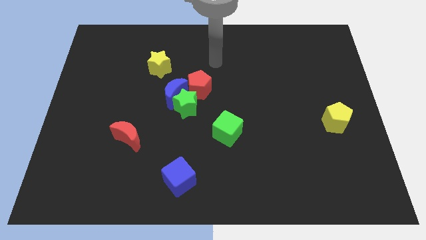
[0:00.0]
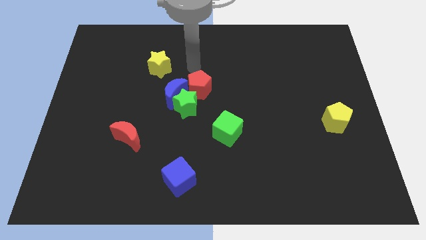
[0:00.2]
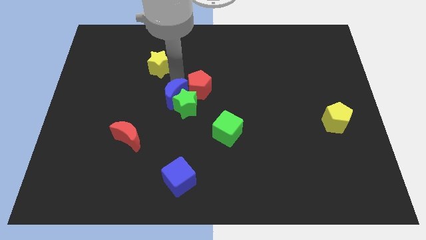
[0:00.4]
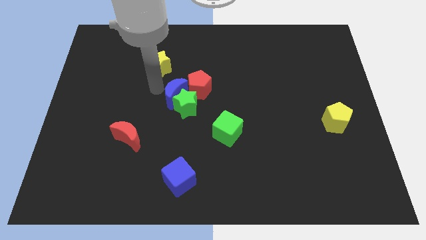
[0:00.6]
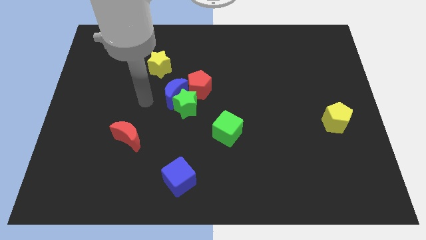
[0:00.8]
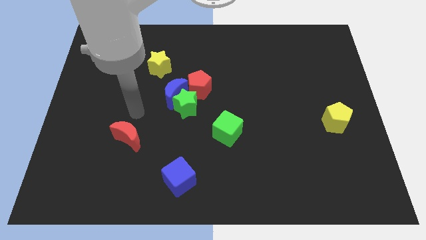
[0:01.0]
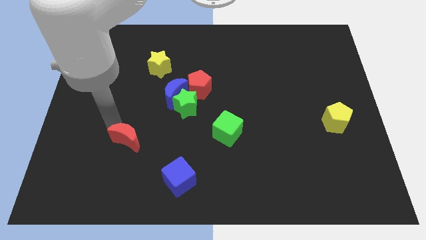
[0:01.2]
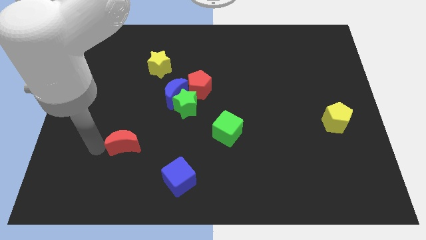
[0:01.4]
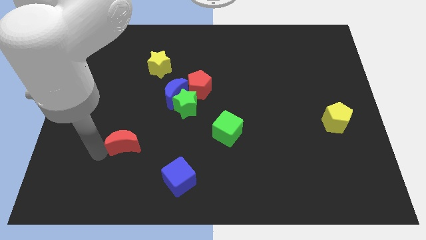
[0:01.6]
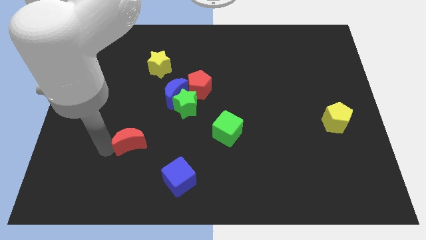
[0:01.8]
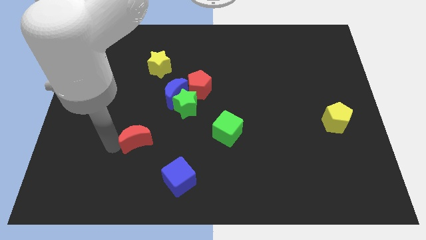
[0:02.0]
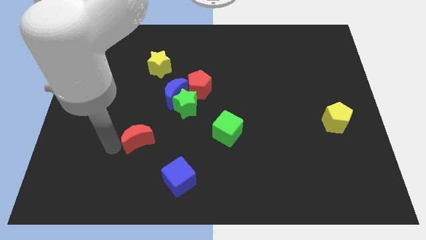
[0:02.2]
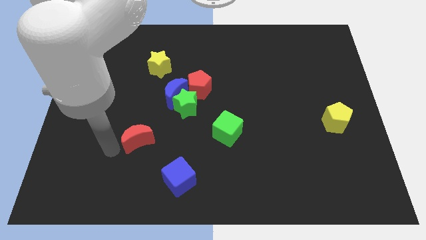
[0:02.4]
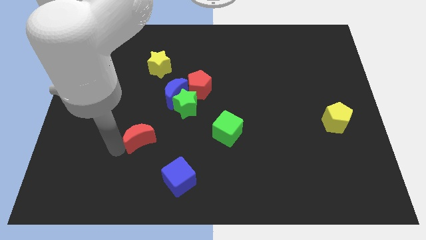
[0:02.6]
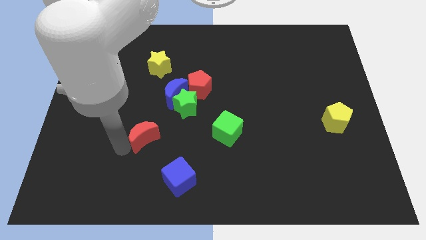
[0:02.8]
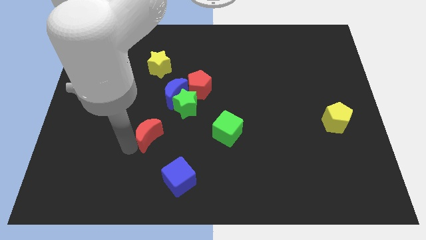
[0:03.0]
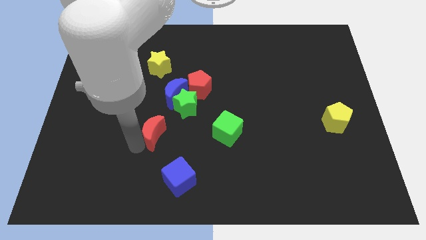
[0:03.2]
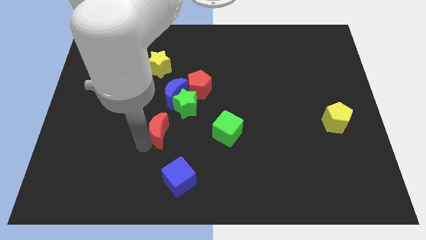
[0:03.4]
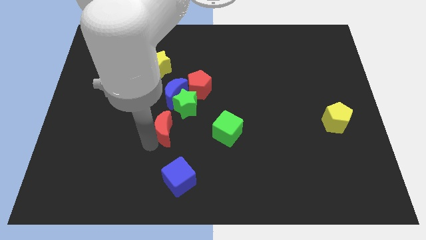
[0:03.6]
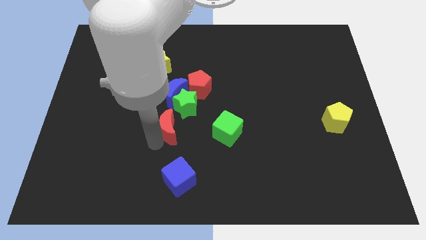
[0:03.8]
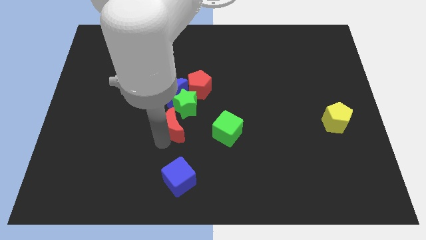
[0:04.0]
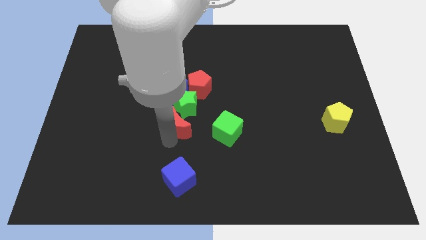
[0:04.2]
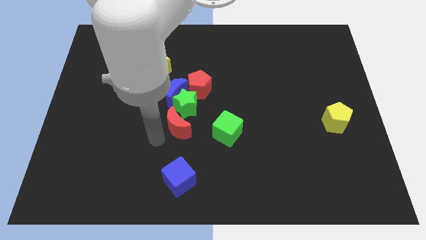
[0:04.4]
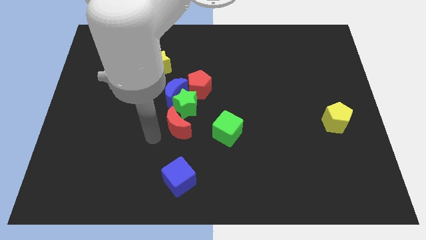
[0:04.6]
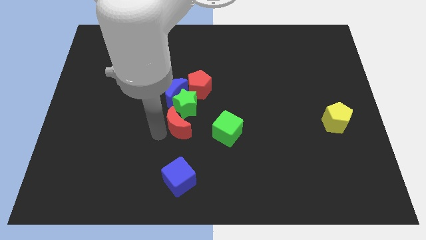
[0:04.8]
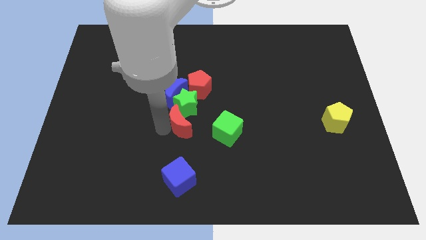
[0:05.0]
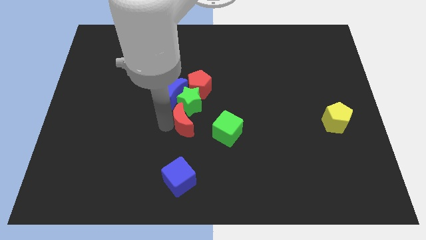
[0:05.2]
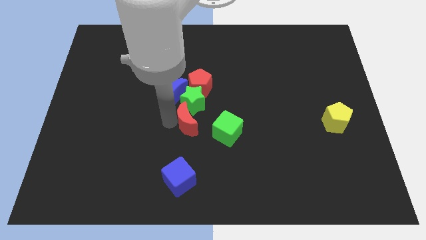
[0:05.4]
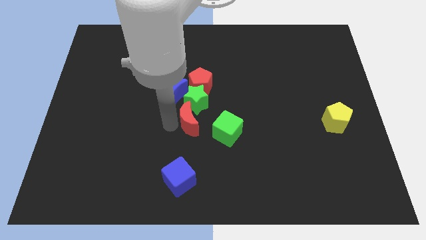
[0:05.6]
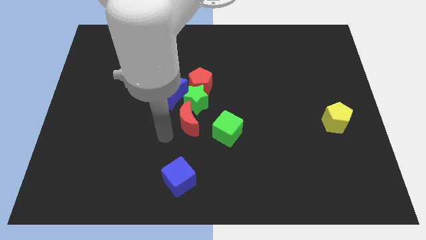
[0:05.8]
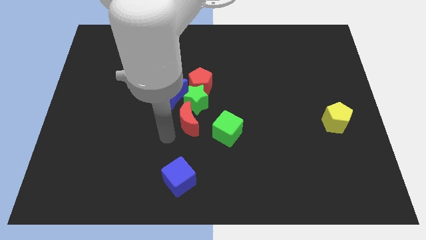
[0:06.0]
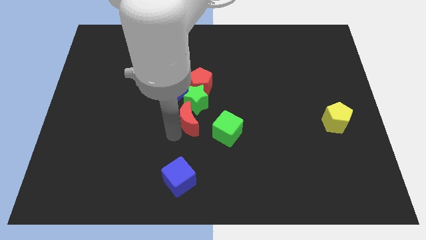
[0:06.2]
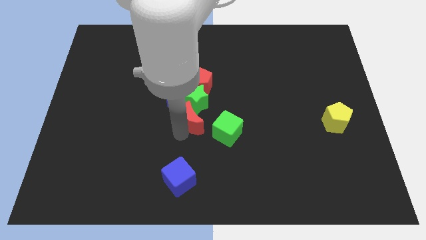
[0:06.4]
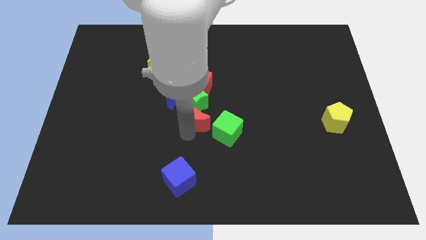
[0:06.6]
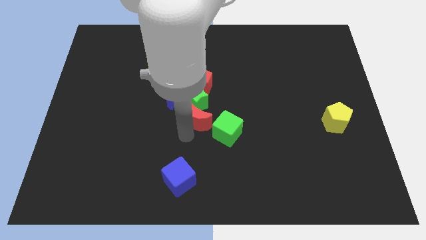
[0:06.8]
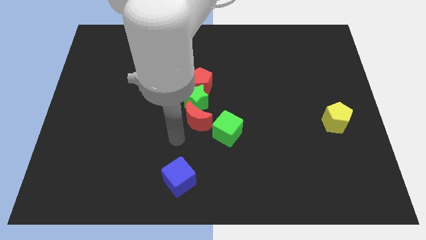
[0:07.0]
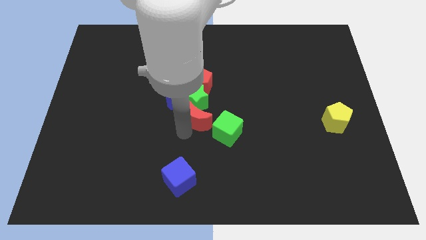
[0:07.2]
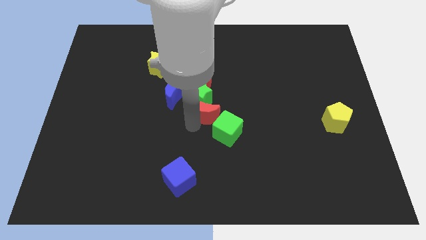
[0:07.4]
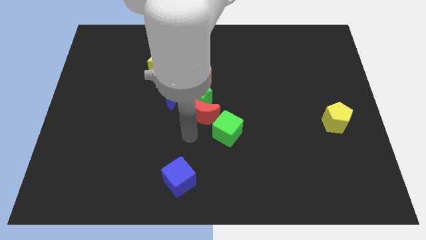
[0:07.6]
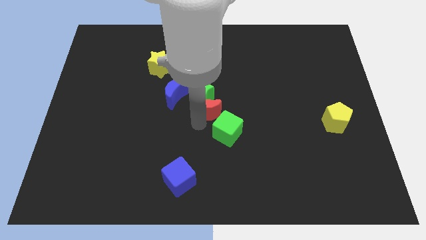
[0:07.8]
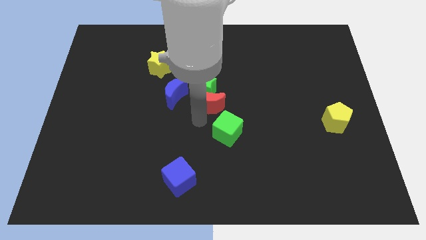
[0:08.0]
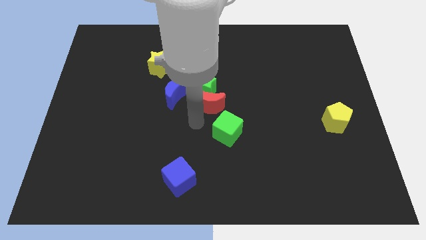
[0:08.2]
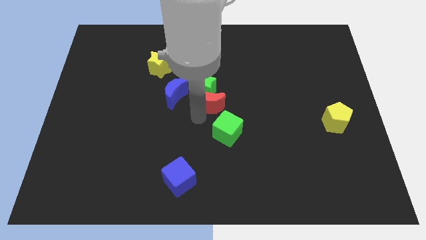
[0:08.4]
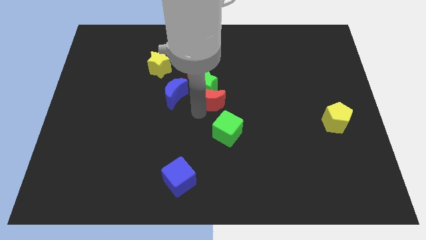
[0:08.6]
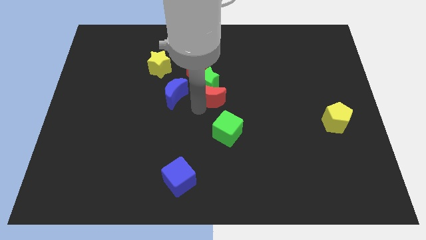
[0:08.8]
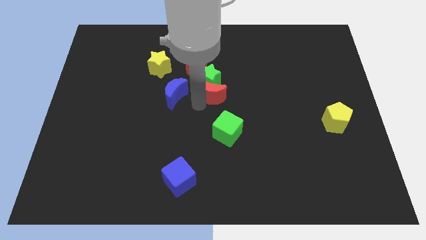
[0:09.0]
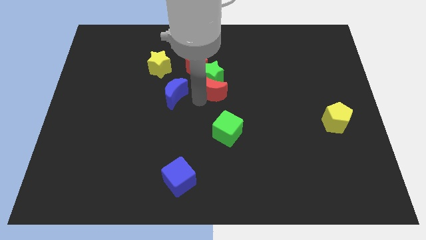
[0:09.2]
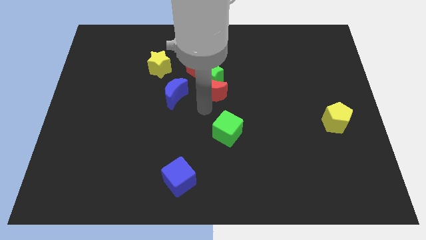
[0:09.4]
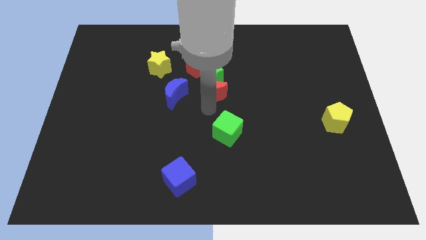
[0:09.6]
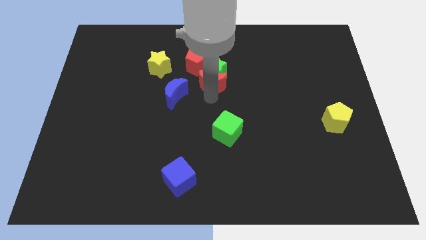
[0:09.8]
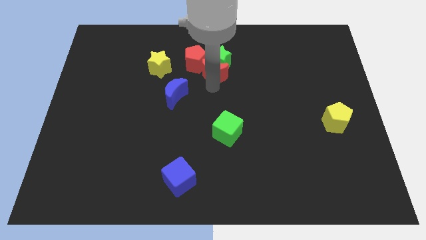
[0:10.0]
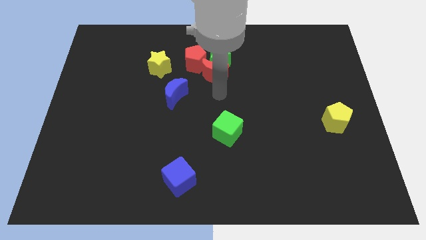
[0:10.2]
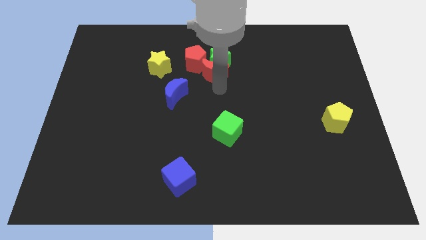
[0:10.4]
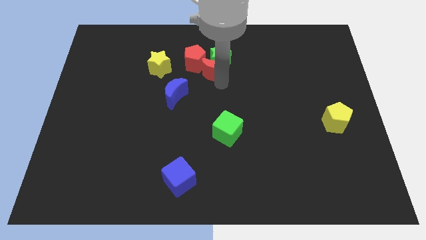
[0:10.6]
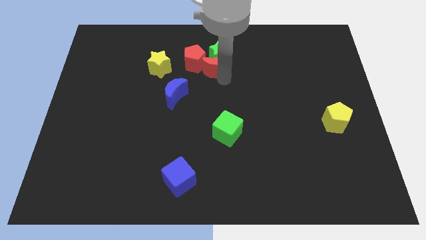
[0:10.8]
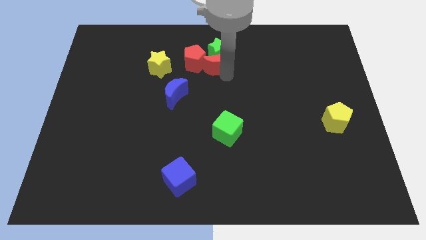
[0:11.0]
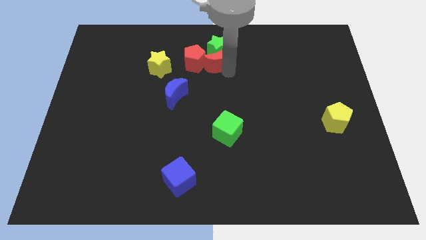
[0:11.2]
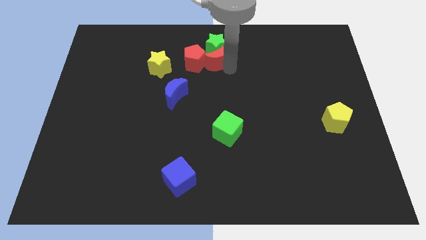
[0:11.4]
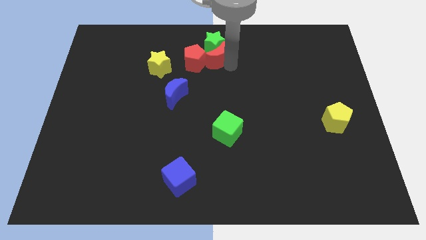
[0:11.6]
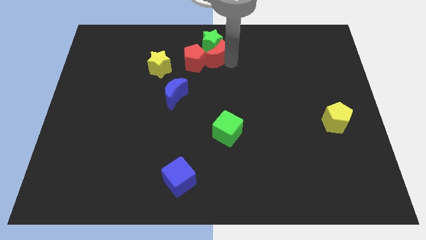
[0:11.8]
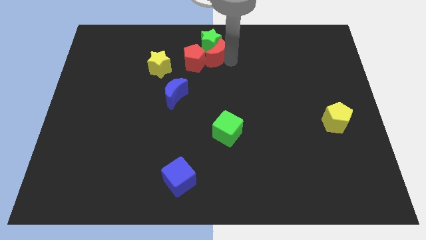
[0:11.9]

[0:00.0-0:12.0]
move the red moon to the towards your base
